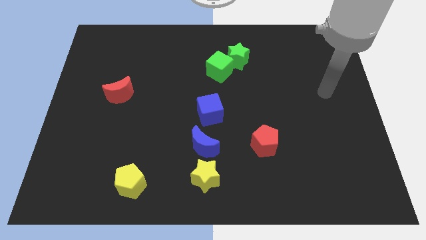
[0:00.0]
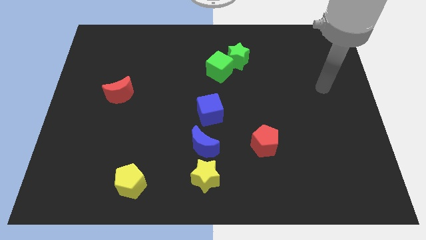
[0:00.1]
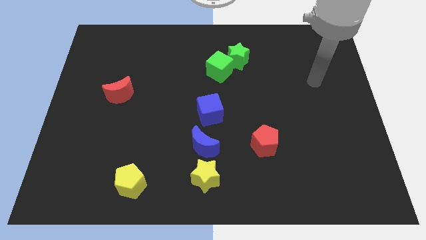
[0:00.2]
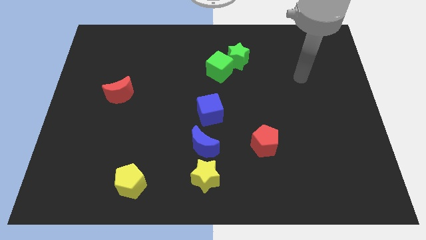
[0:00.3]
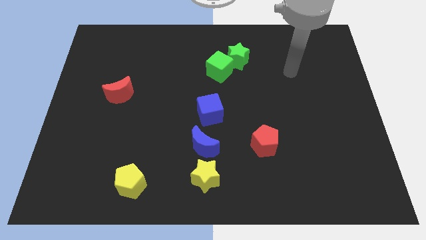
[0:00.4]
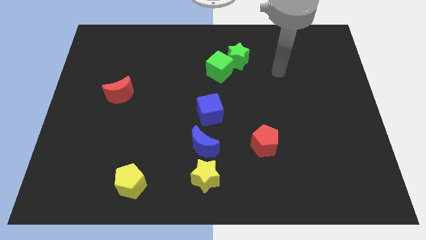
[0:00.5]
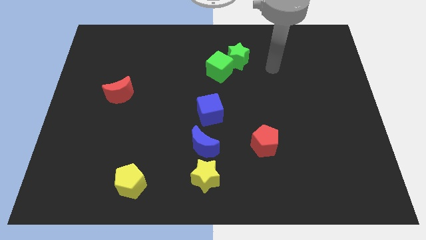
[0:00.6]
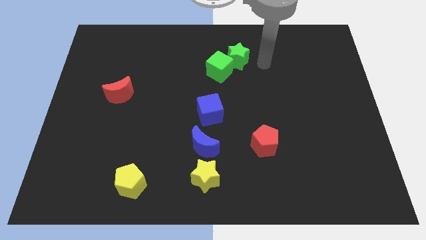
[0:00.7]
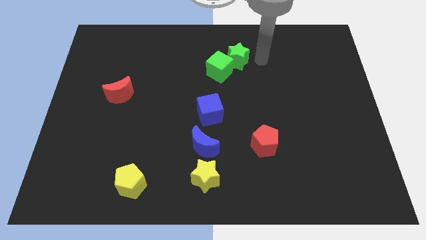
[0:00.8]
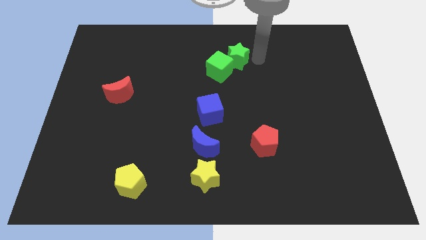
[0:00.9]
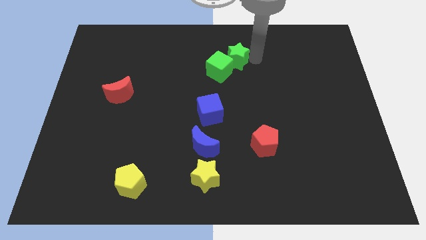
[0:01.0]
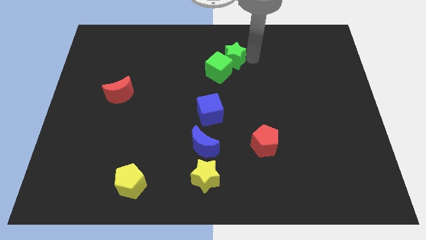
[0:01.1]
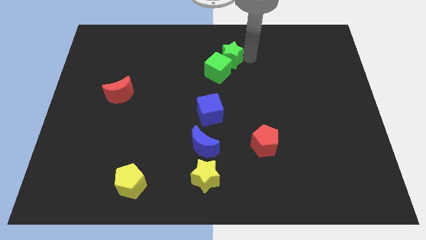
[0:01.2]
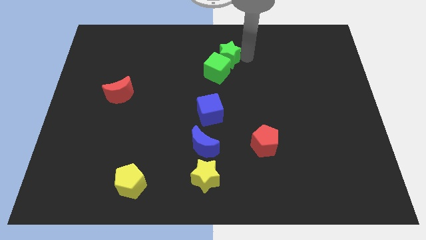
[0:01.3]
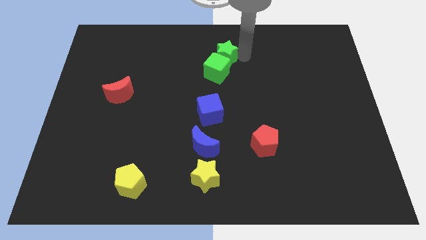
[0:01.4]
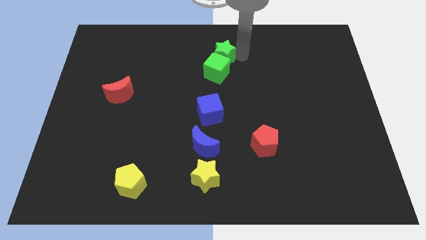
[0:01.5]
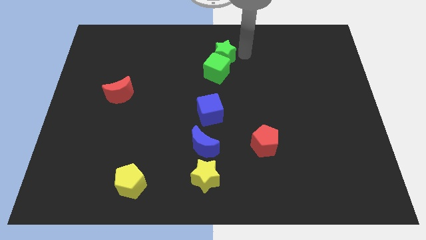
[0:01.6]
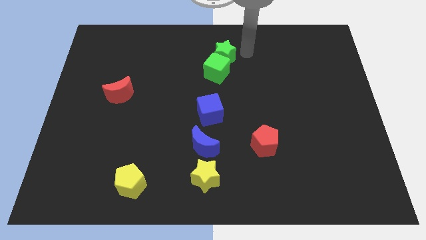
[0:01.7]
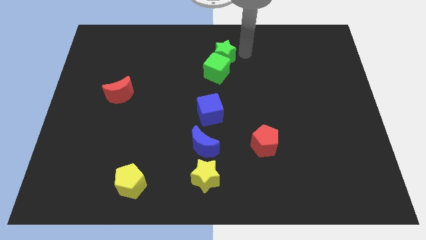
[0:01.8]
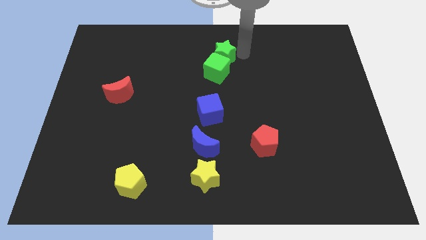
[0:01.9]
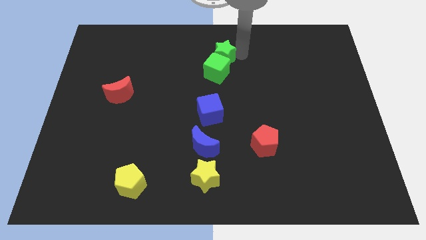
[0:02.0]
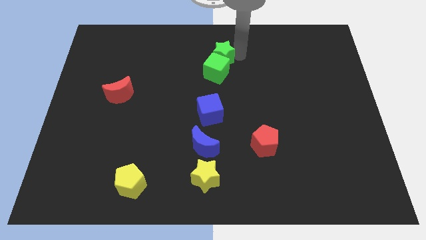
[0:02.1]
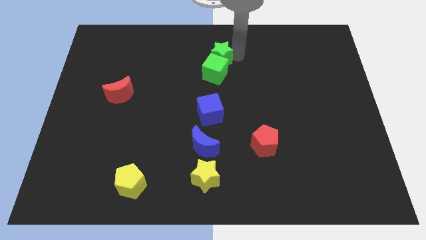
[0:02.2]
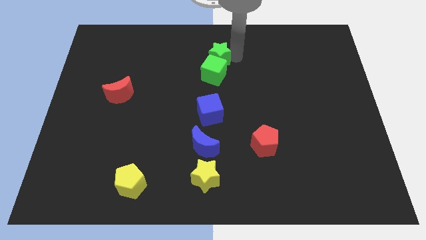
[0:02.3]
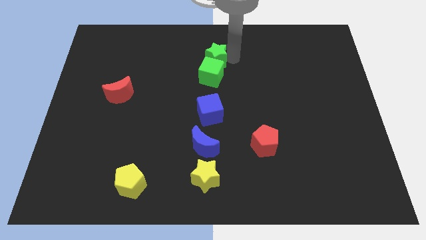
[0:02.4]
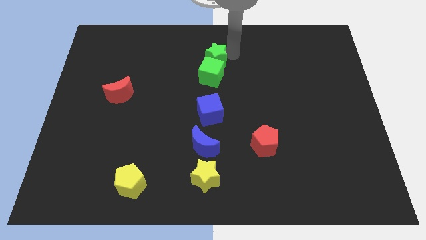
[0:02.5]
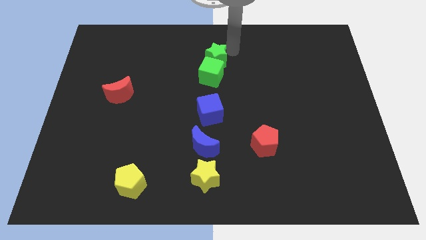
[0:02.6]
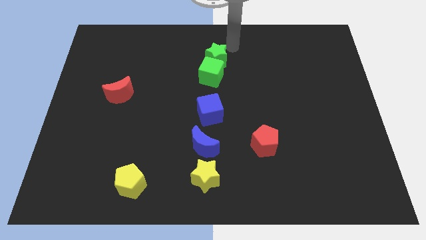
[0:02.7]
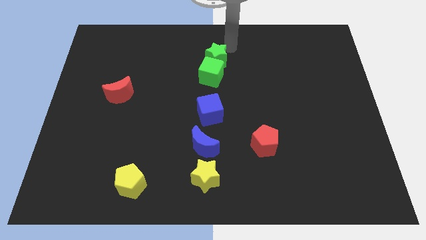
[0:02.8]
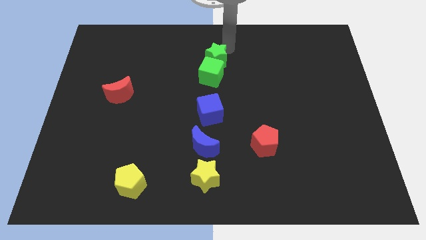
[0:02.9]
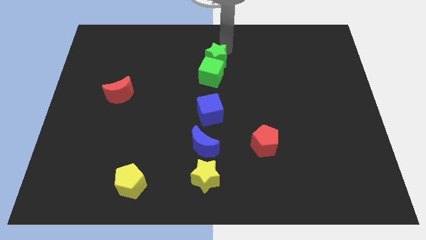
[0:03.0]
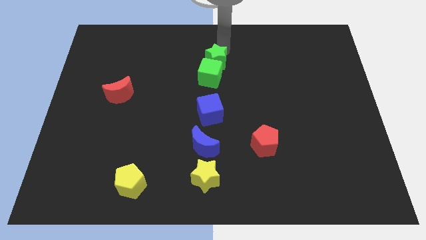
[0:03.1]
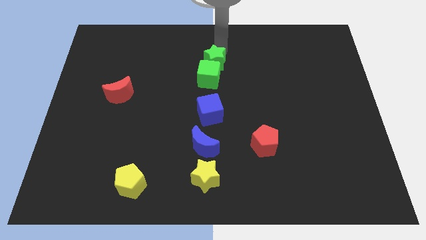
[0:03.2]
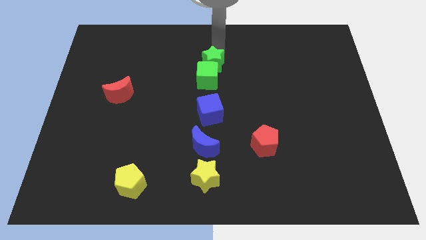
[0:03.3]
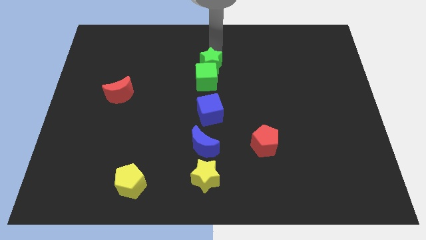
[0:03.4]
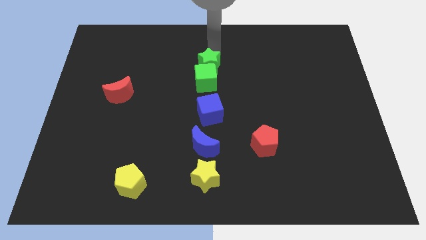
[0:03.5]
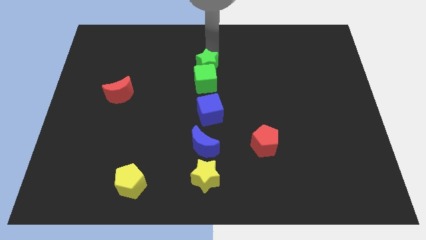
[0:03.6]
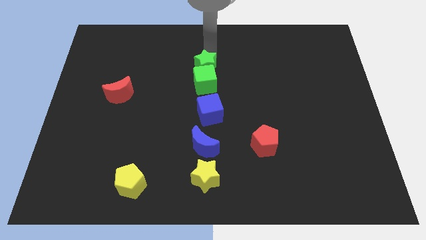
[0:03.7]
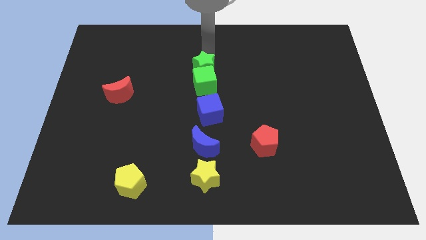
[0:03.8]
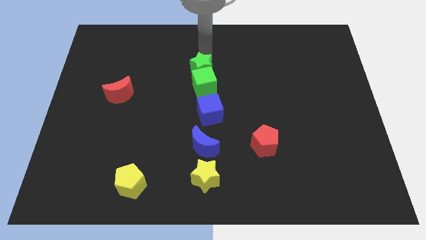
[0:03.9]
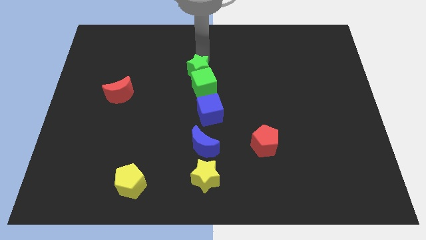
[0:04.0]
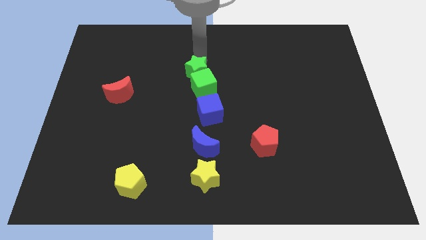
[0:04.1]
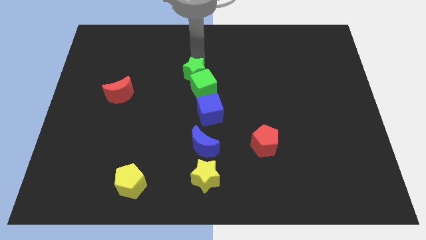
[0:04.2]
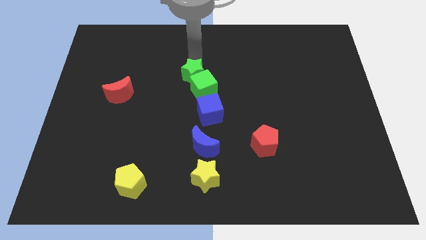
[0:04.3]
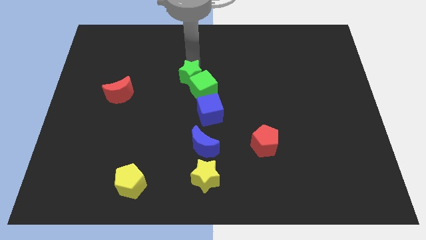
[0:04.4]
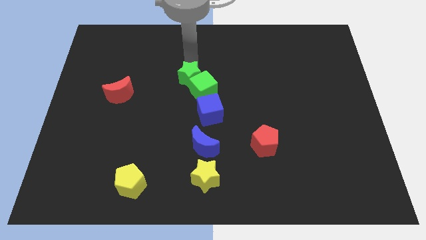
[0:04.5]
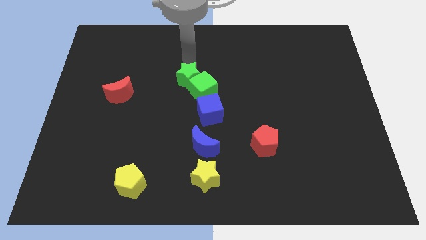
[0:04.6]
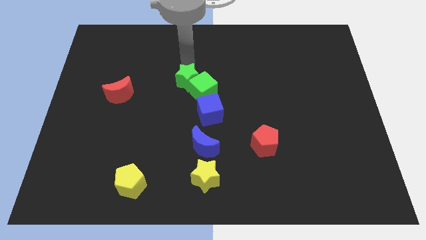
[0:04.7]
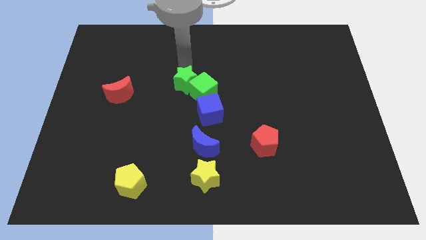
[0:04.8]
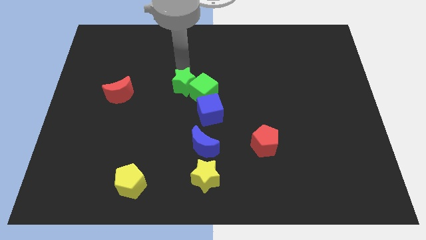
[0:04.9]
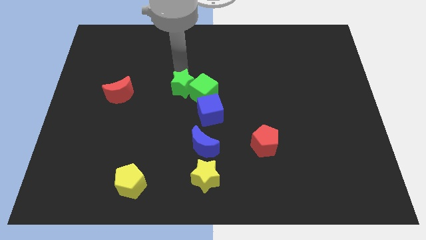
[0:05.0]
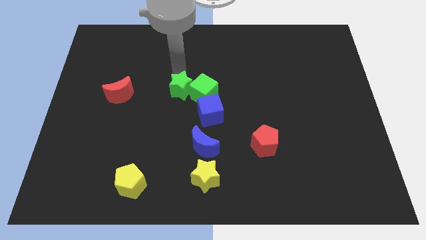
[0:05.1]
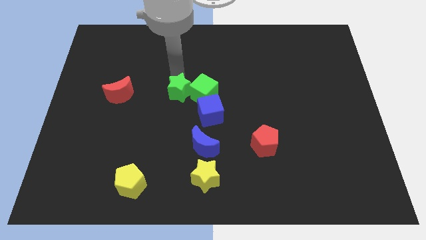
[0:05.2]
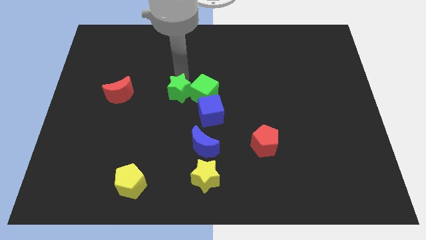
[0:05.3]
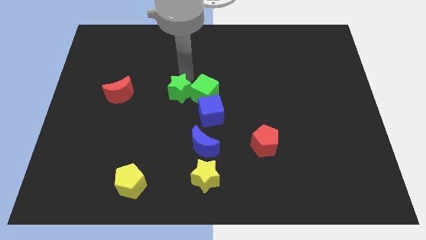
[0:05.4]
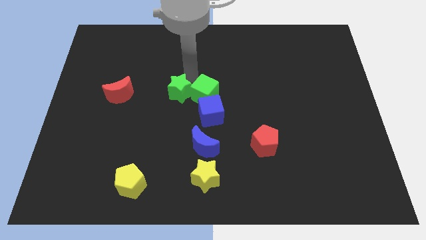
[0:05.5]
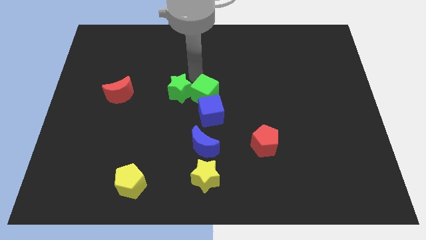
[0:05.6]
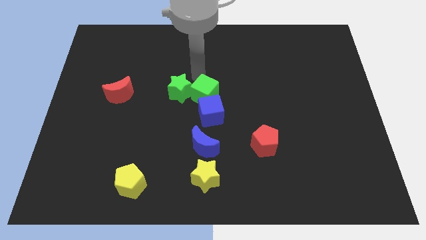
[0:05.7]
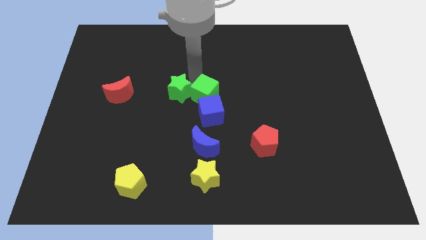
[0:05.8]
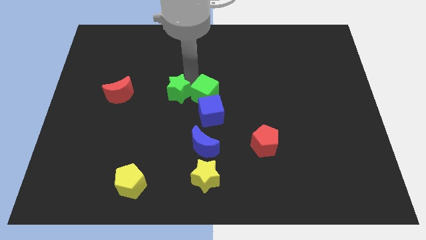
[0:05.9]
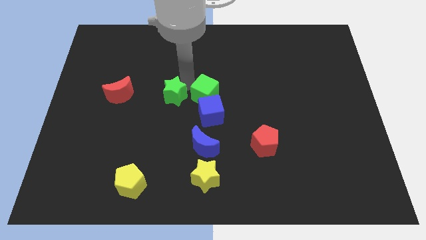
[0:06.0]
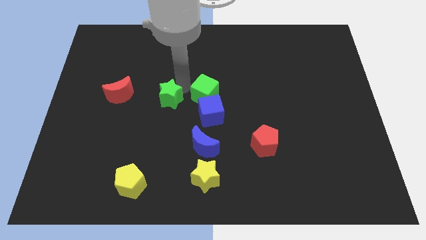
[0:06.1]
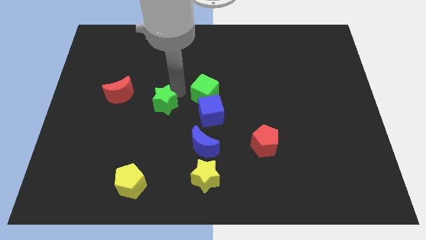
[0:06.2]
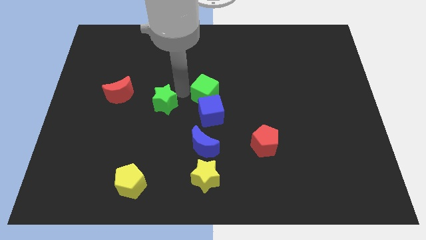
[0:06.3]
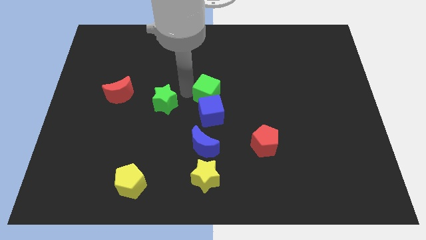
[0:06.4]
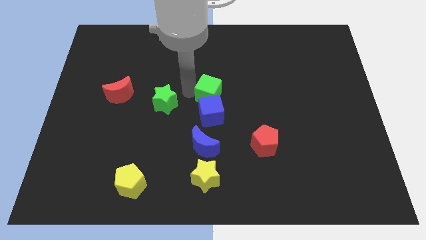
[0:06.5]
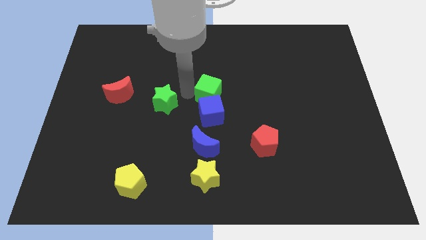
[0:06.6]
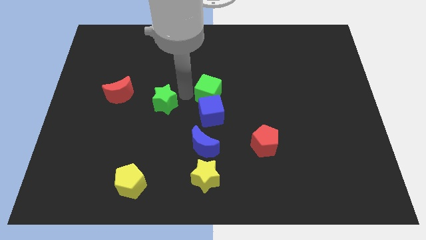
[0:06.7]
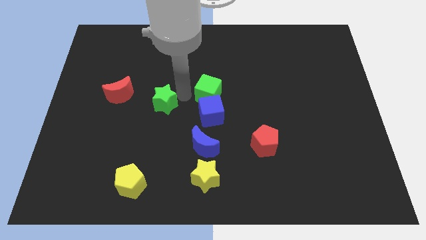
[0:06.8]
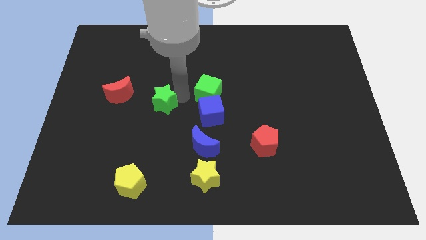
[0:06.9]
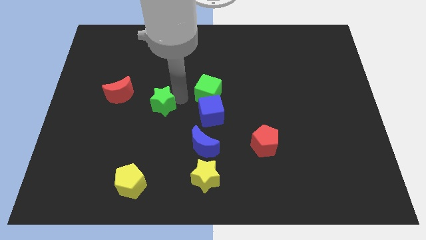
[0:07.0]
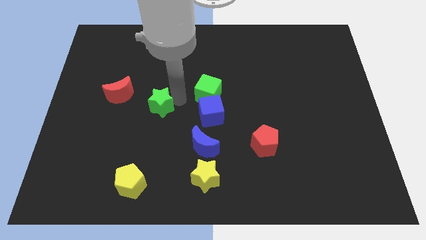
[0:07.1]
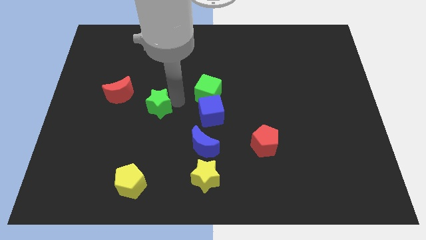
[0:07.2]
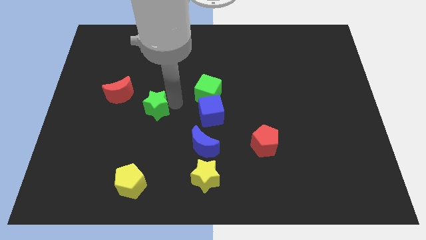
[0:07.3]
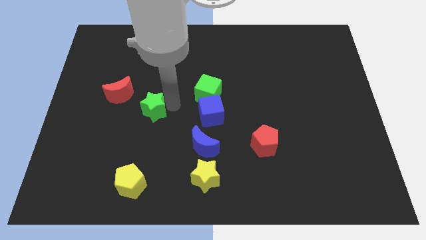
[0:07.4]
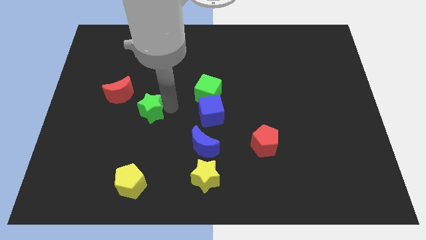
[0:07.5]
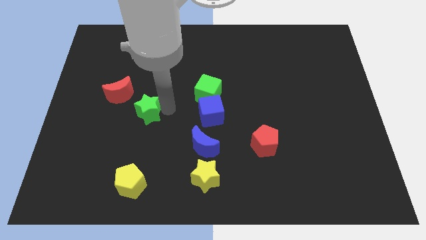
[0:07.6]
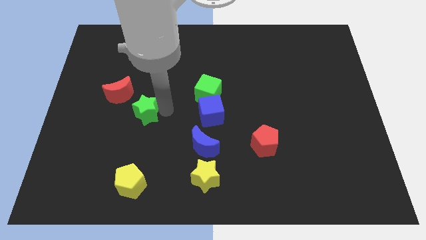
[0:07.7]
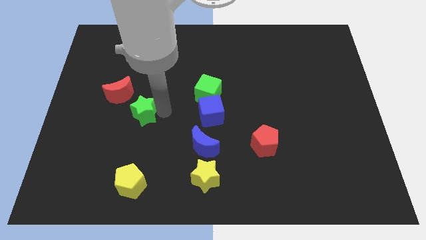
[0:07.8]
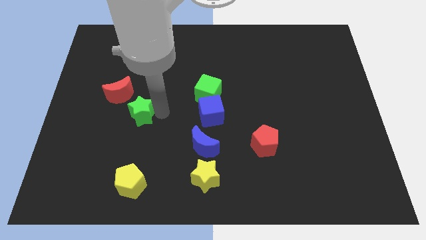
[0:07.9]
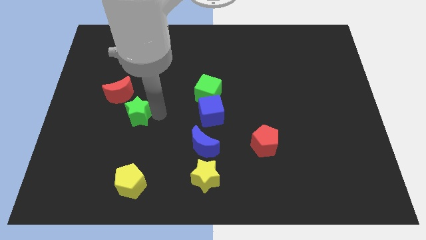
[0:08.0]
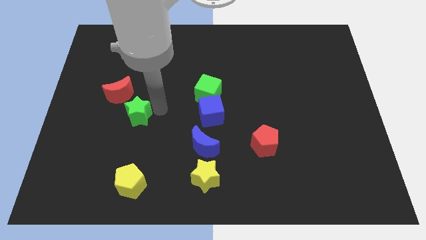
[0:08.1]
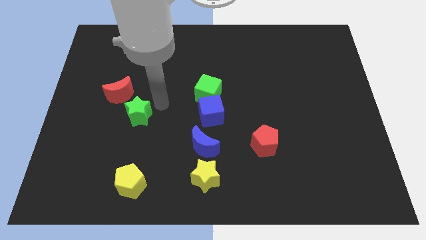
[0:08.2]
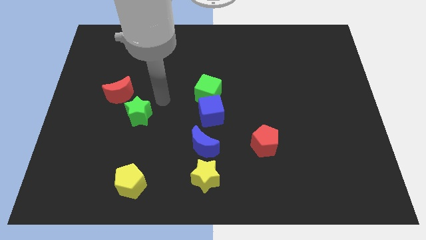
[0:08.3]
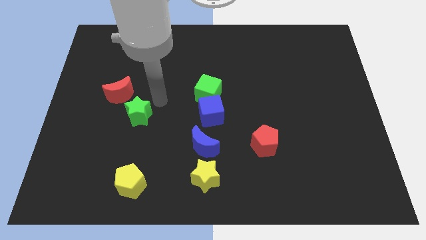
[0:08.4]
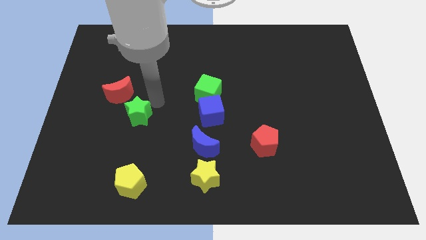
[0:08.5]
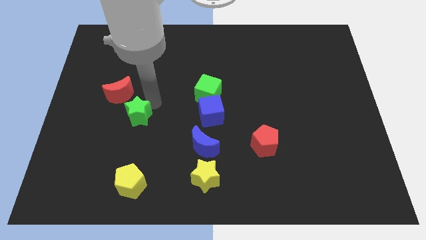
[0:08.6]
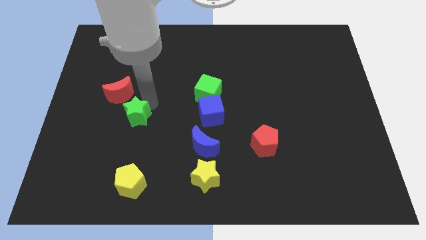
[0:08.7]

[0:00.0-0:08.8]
move the green star below the red moon
